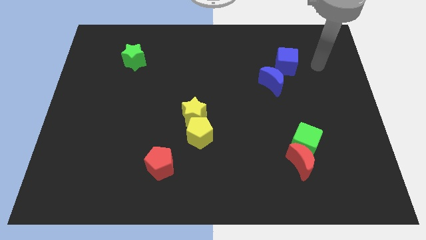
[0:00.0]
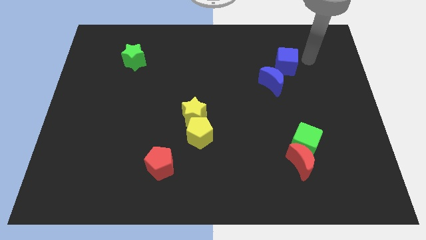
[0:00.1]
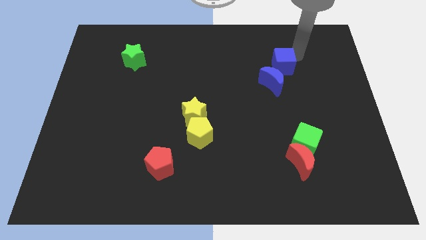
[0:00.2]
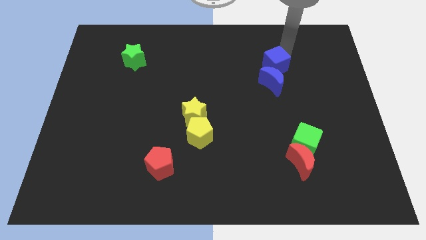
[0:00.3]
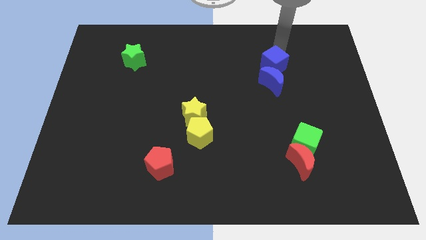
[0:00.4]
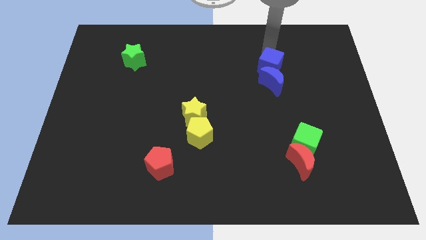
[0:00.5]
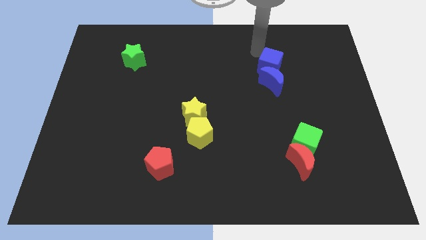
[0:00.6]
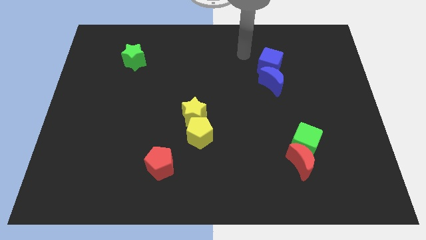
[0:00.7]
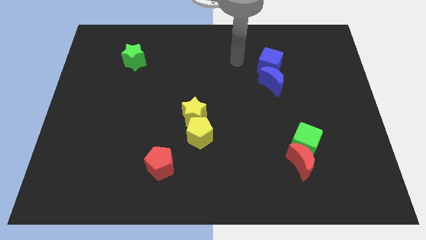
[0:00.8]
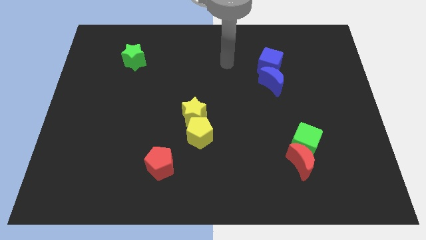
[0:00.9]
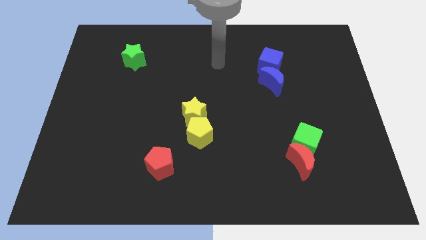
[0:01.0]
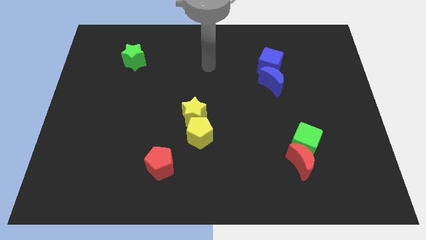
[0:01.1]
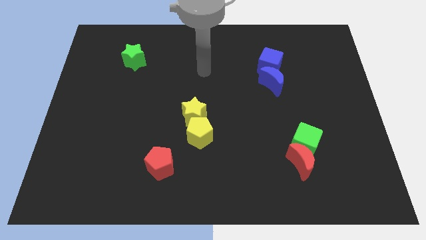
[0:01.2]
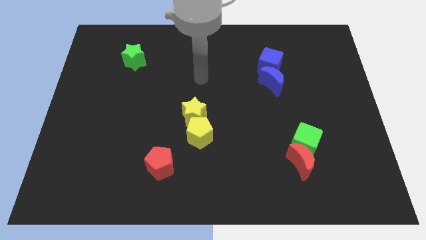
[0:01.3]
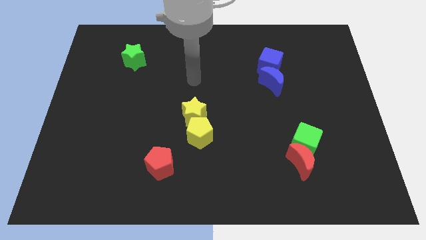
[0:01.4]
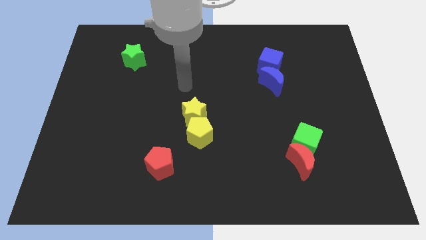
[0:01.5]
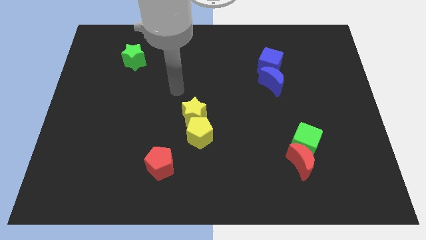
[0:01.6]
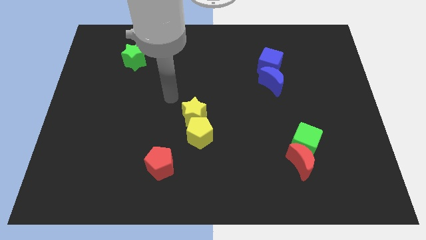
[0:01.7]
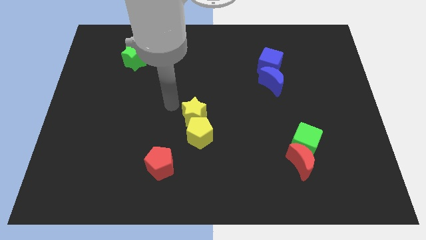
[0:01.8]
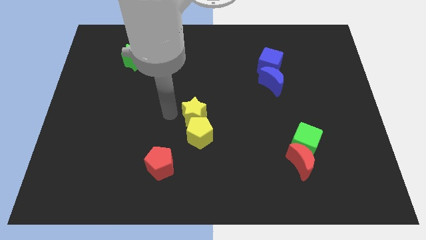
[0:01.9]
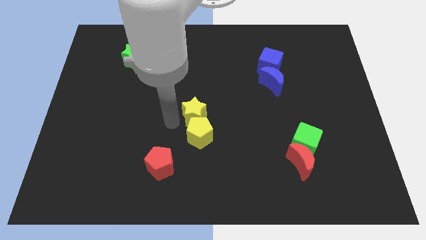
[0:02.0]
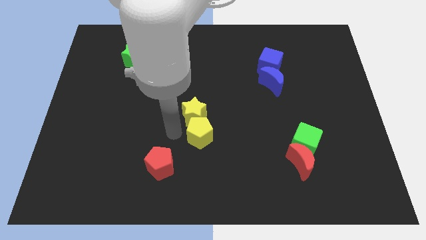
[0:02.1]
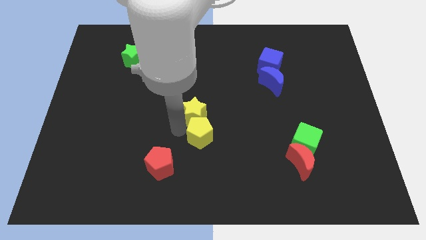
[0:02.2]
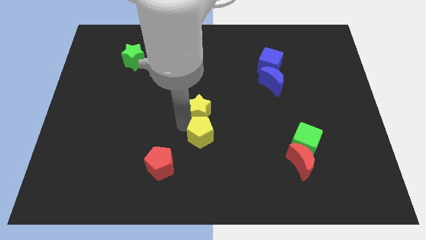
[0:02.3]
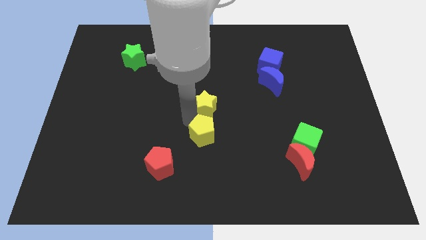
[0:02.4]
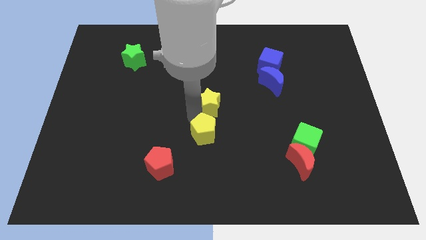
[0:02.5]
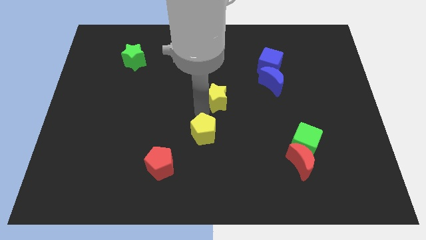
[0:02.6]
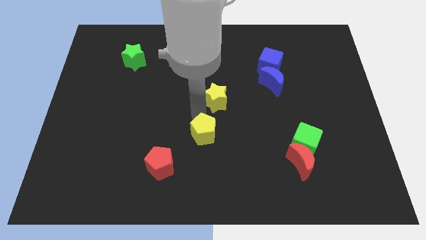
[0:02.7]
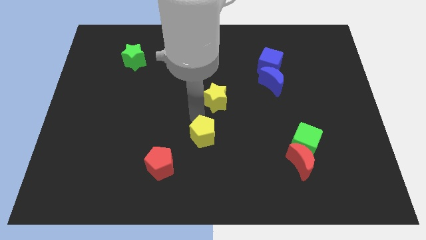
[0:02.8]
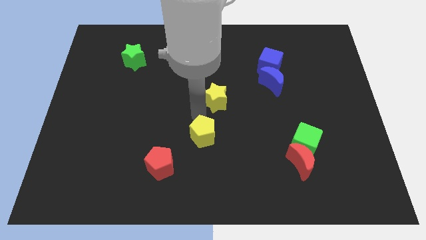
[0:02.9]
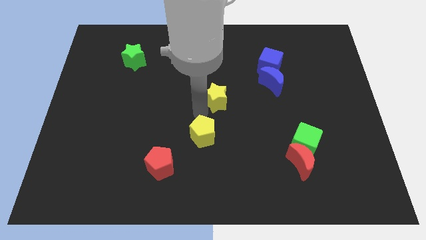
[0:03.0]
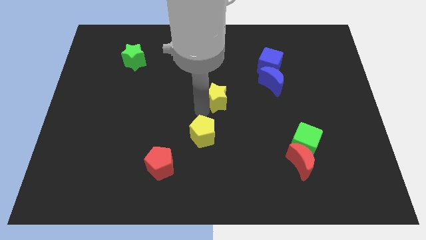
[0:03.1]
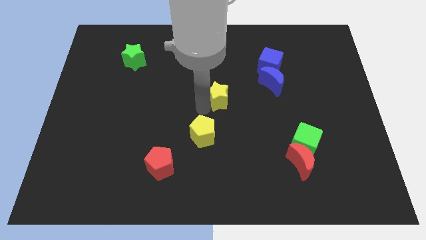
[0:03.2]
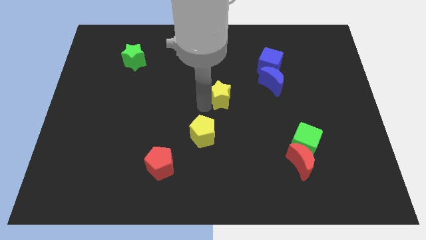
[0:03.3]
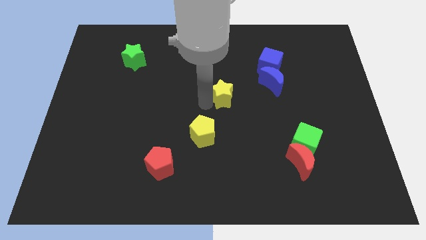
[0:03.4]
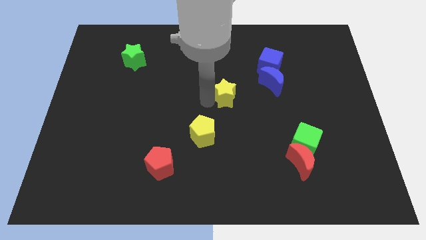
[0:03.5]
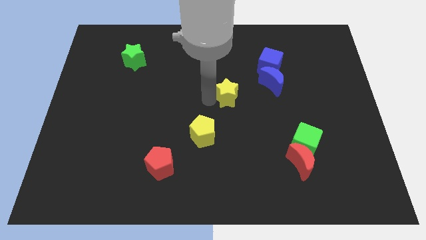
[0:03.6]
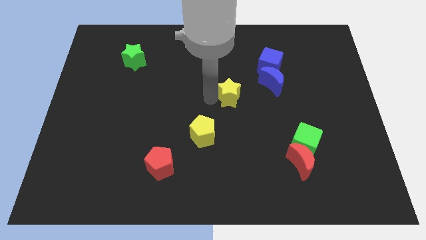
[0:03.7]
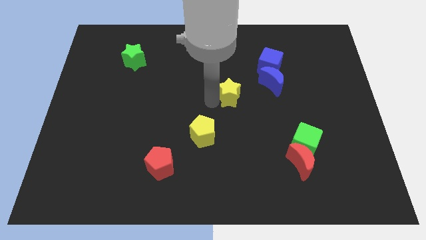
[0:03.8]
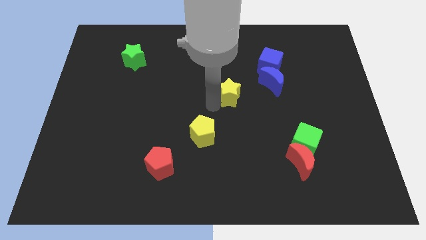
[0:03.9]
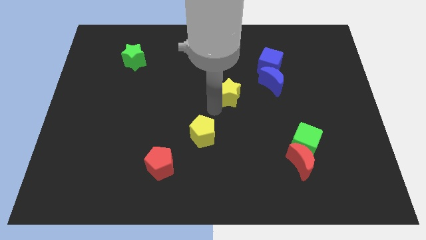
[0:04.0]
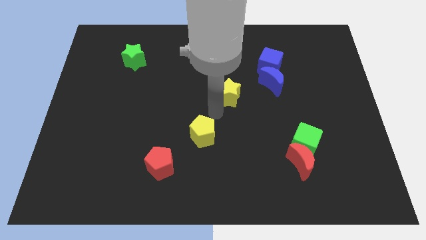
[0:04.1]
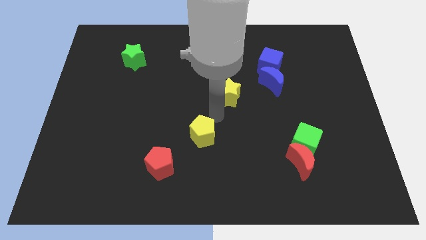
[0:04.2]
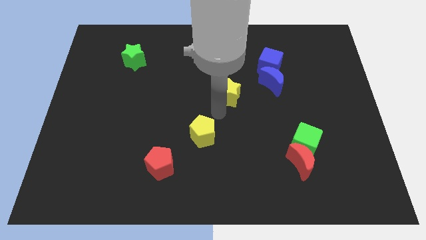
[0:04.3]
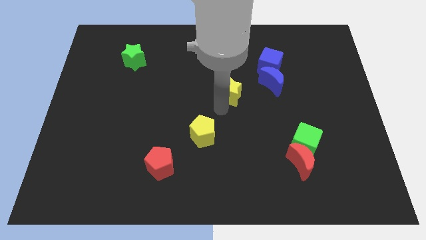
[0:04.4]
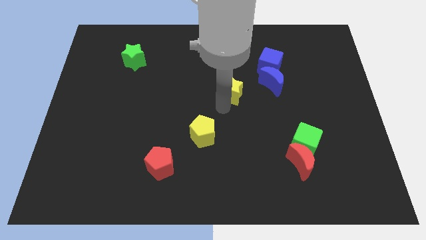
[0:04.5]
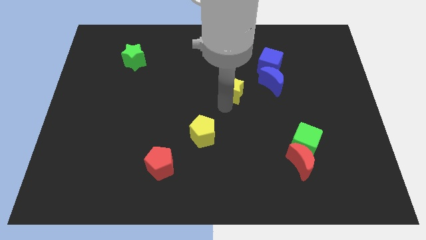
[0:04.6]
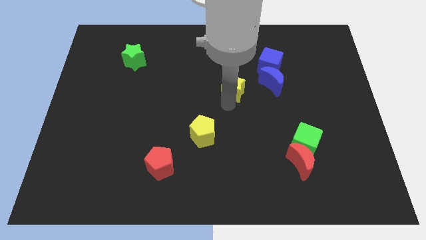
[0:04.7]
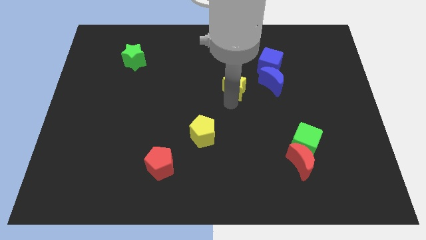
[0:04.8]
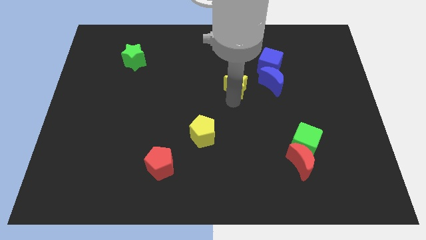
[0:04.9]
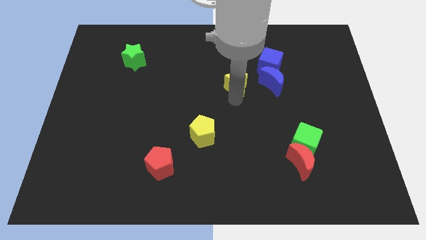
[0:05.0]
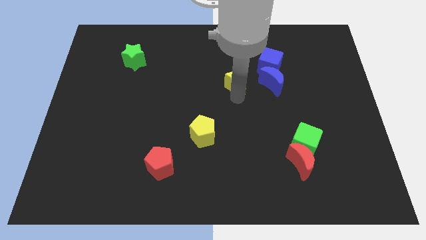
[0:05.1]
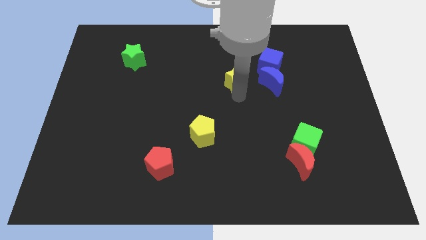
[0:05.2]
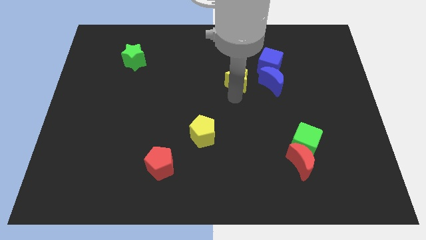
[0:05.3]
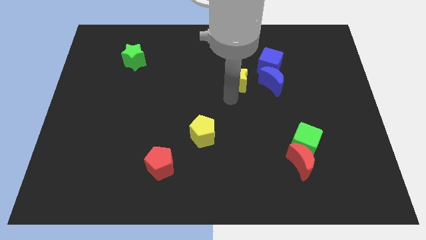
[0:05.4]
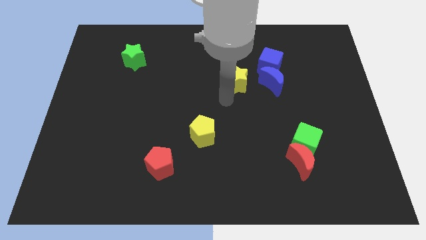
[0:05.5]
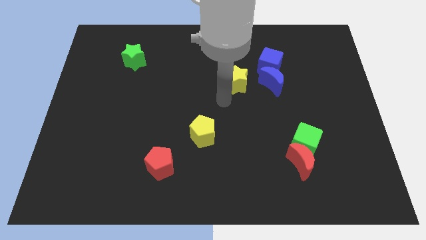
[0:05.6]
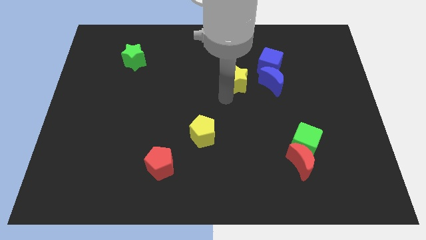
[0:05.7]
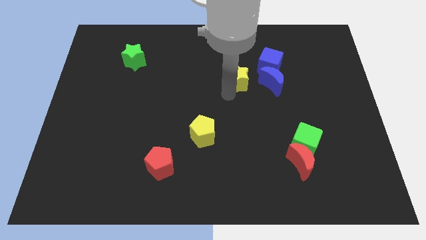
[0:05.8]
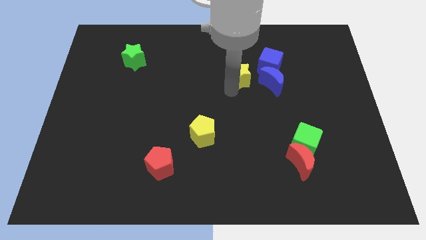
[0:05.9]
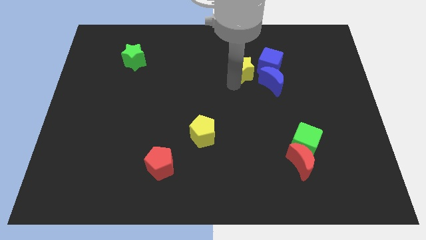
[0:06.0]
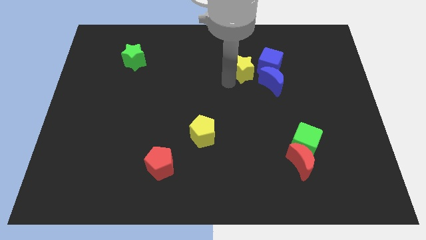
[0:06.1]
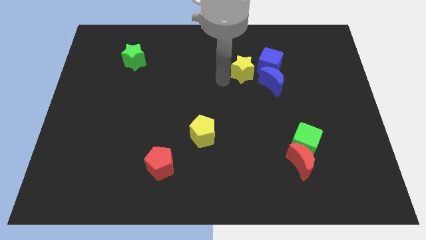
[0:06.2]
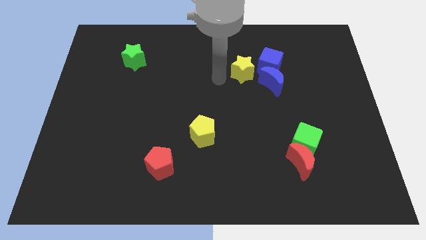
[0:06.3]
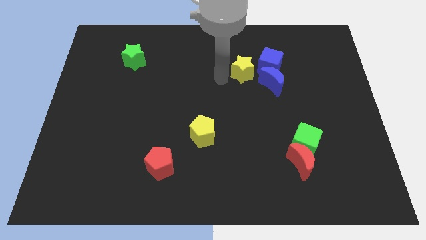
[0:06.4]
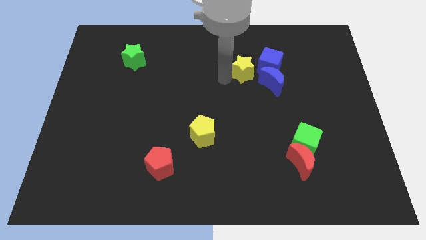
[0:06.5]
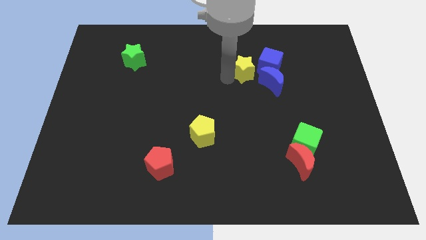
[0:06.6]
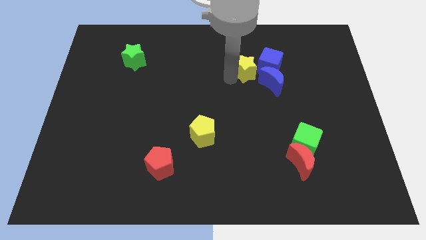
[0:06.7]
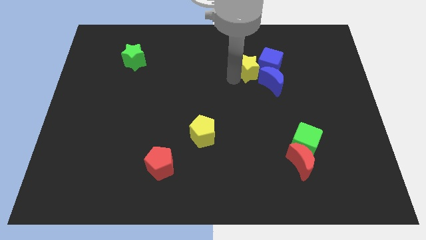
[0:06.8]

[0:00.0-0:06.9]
slide the yellow star close to the blue cube
